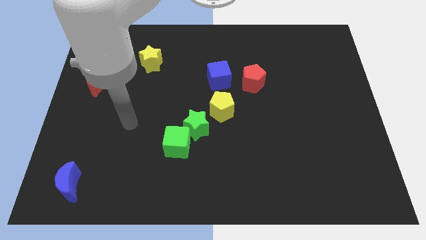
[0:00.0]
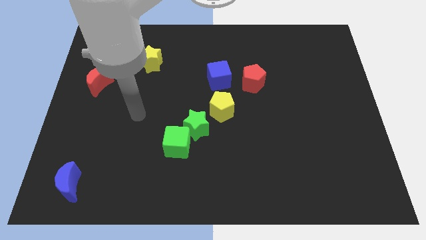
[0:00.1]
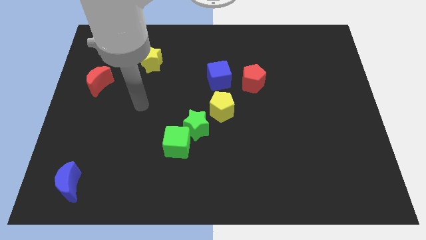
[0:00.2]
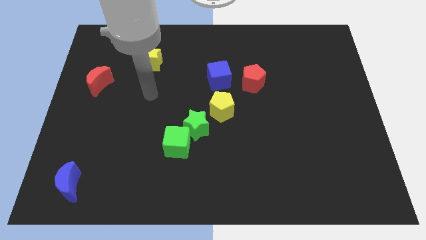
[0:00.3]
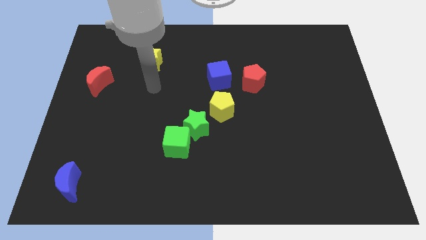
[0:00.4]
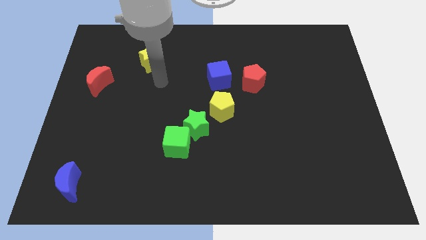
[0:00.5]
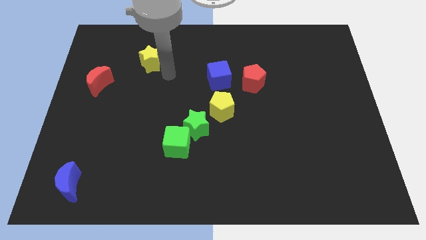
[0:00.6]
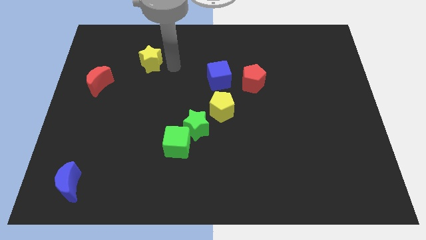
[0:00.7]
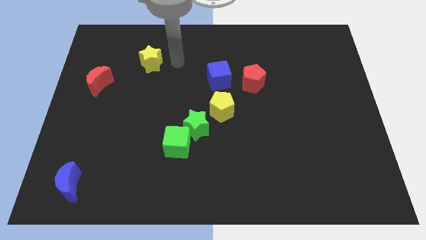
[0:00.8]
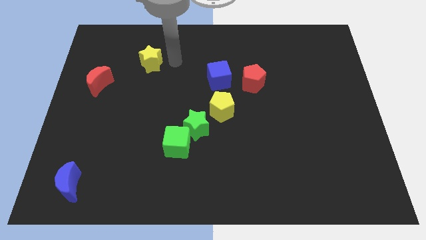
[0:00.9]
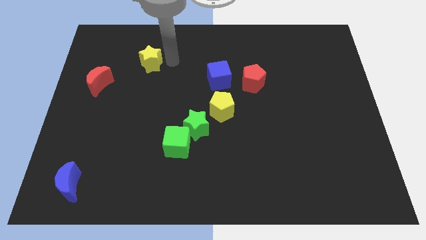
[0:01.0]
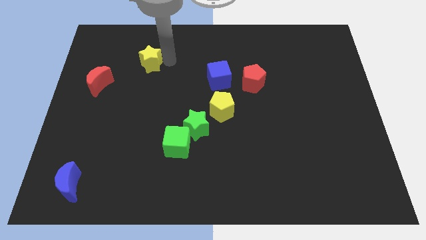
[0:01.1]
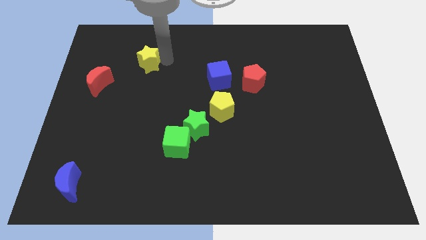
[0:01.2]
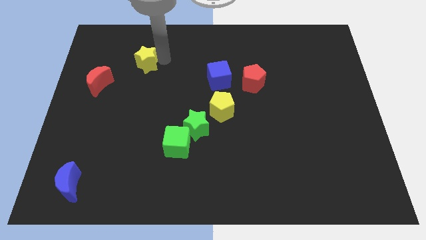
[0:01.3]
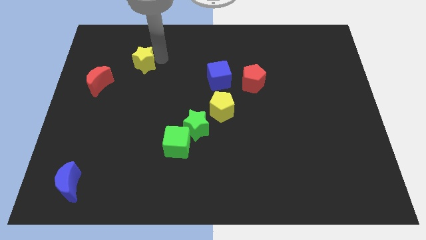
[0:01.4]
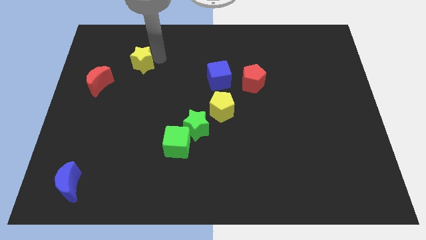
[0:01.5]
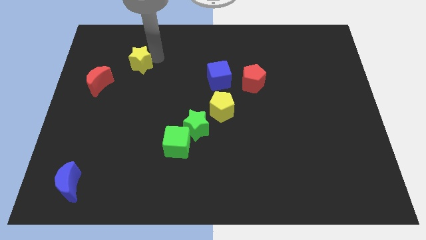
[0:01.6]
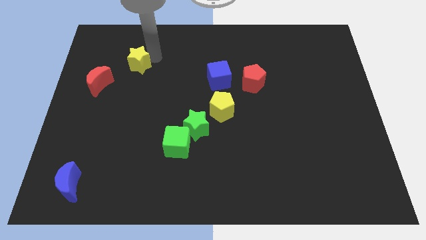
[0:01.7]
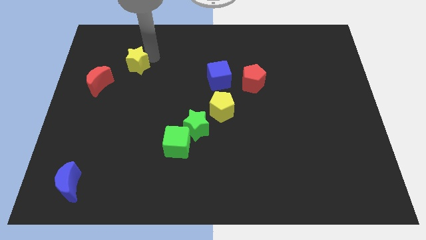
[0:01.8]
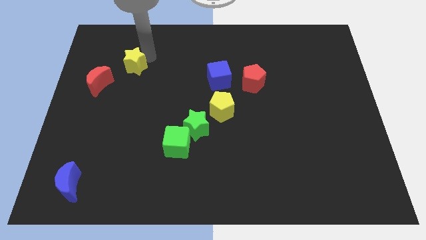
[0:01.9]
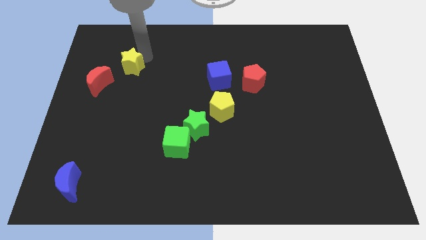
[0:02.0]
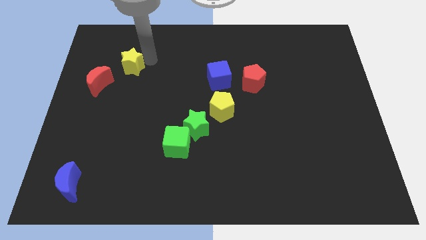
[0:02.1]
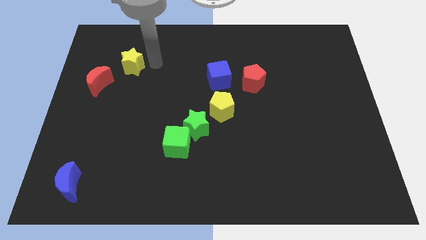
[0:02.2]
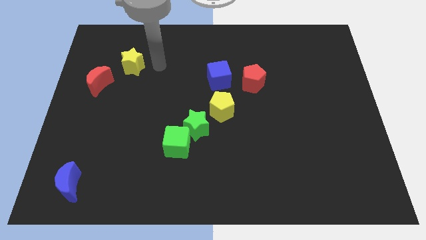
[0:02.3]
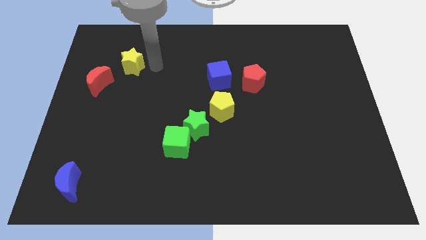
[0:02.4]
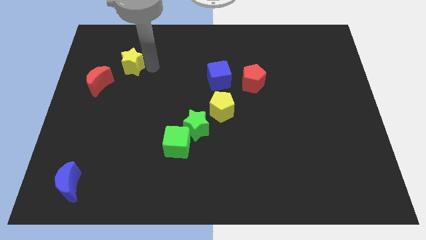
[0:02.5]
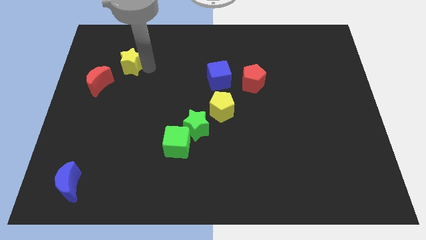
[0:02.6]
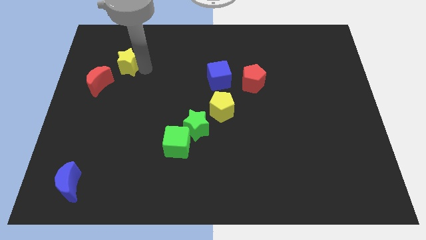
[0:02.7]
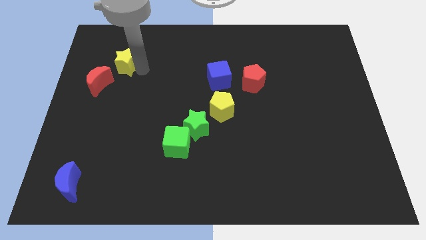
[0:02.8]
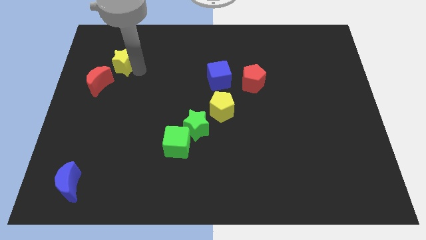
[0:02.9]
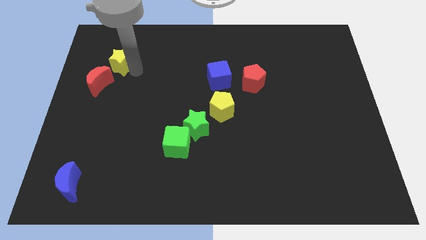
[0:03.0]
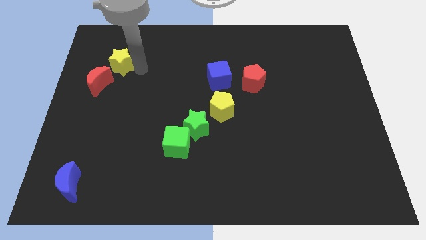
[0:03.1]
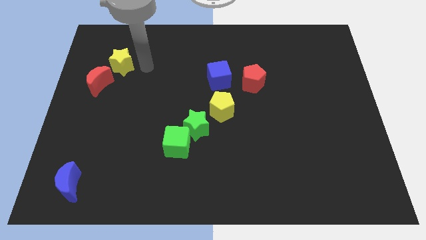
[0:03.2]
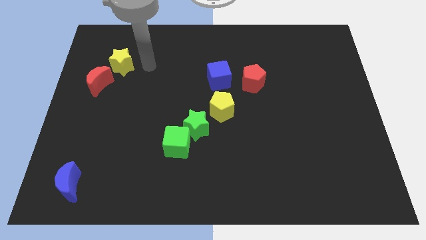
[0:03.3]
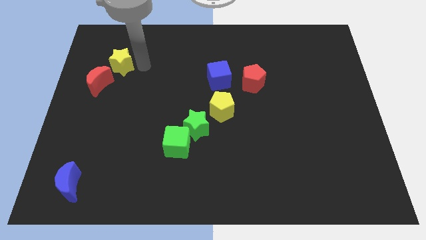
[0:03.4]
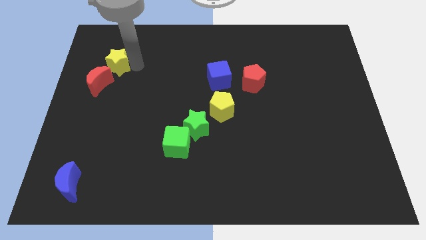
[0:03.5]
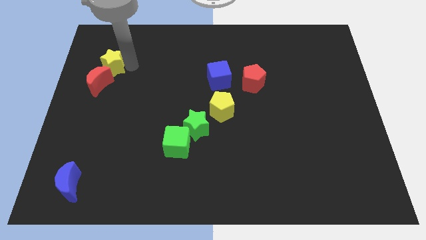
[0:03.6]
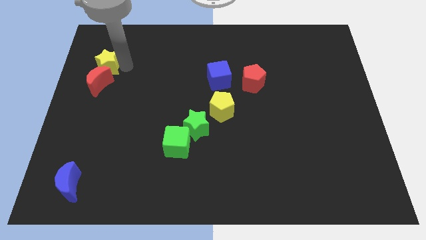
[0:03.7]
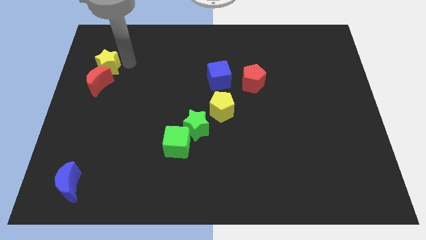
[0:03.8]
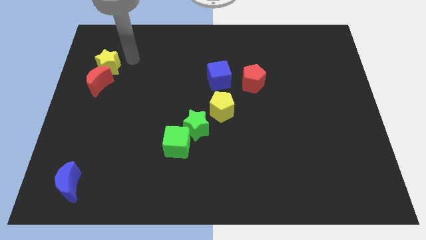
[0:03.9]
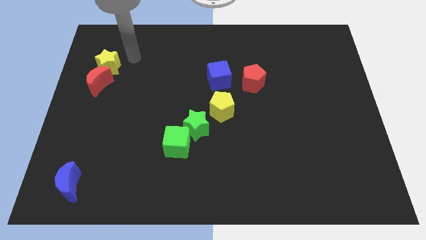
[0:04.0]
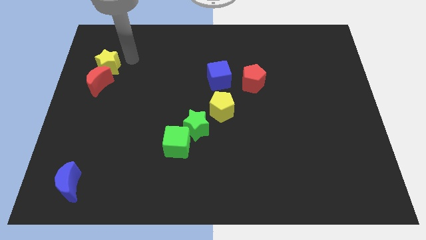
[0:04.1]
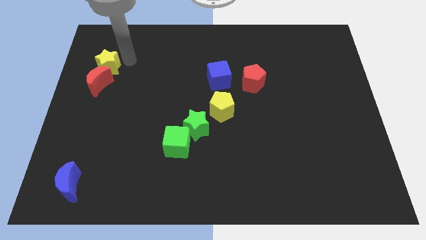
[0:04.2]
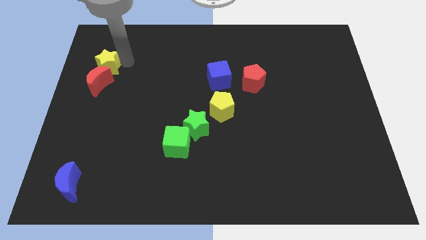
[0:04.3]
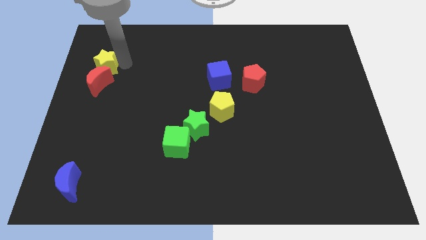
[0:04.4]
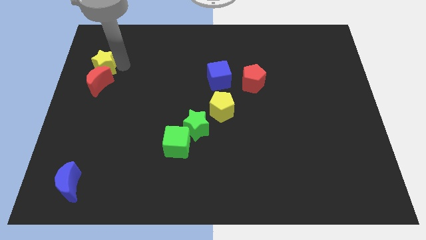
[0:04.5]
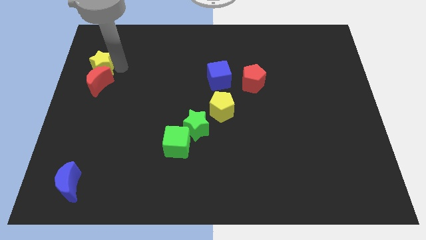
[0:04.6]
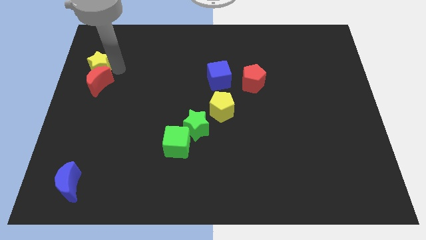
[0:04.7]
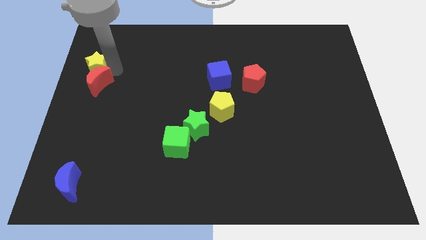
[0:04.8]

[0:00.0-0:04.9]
push the yellow star to the left side of the board
